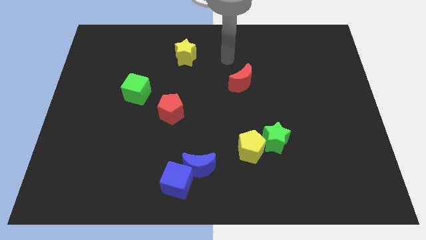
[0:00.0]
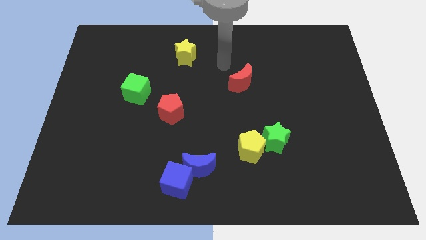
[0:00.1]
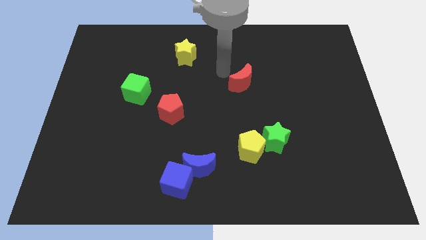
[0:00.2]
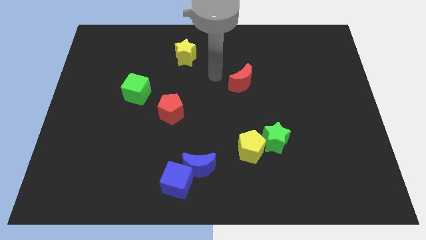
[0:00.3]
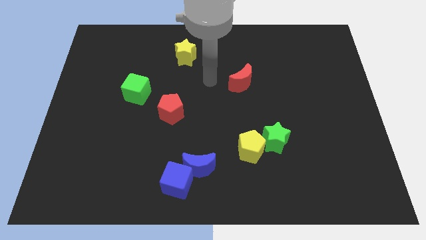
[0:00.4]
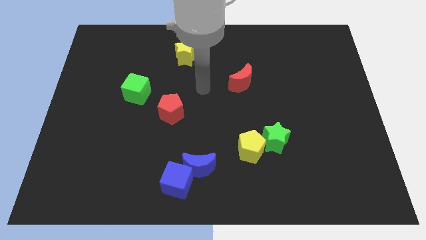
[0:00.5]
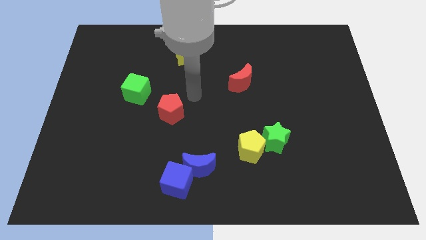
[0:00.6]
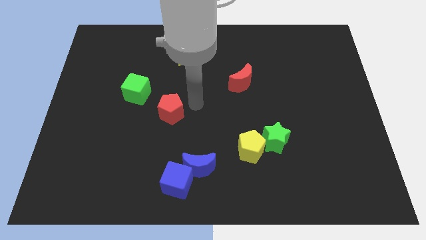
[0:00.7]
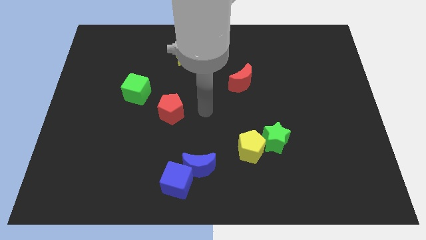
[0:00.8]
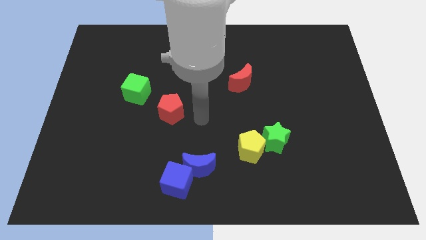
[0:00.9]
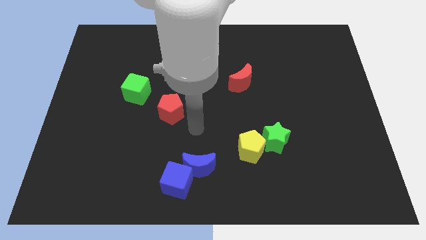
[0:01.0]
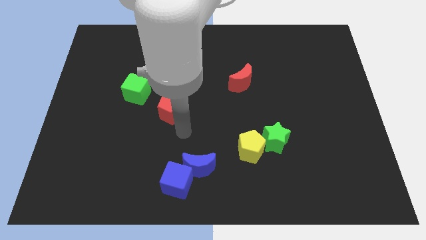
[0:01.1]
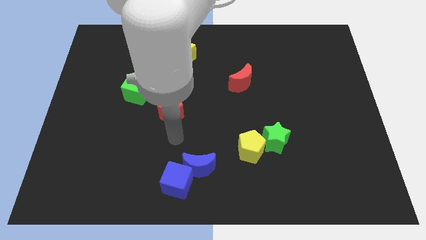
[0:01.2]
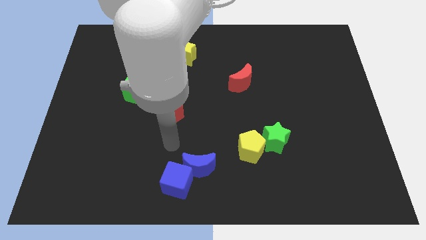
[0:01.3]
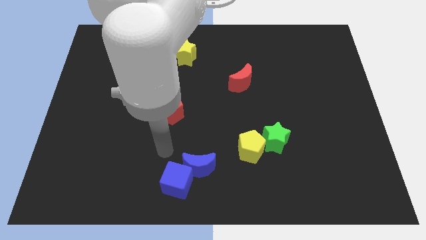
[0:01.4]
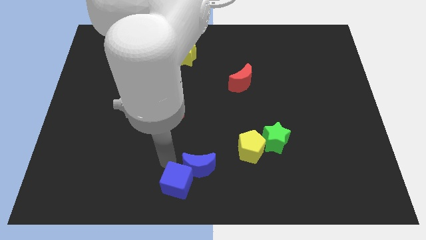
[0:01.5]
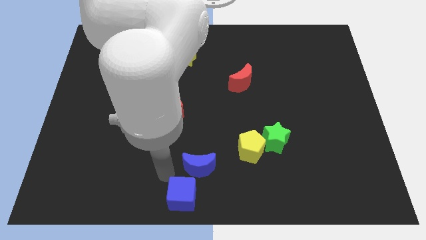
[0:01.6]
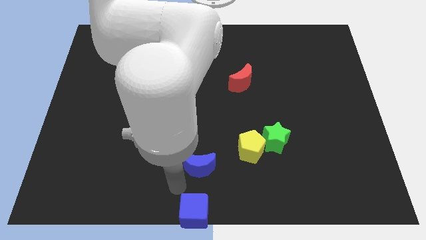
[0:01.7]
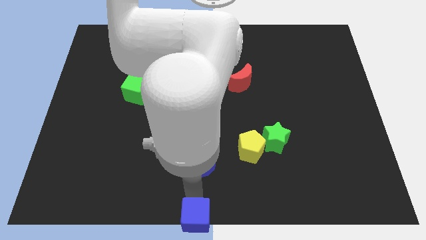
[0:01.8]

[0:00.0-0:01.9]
pull the blue moon apart from the blue cube

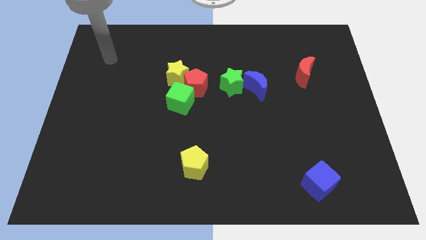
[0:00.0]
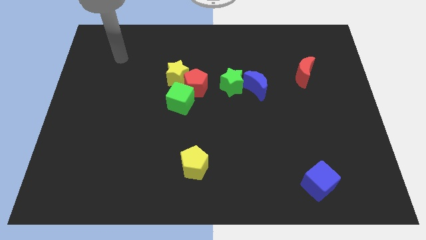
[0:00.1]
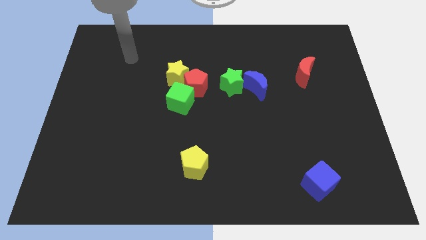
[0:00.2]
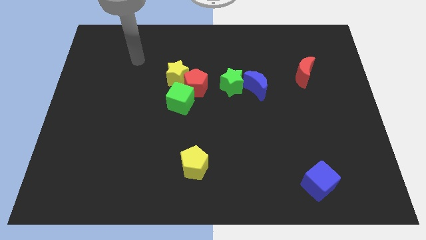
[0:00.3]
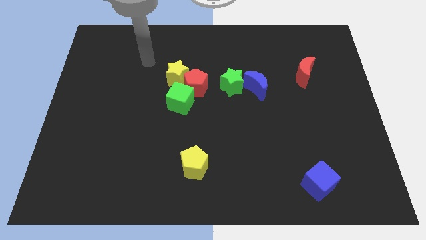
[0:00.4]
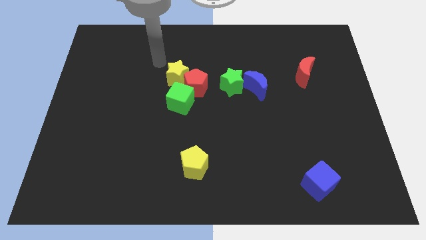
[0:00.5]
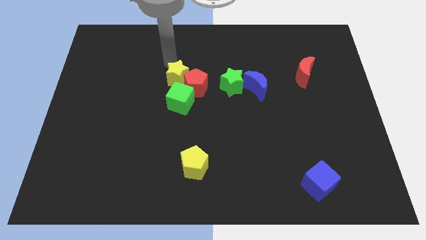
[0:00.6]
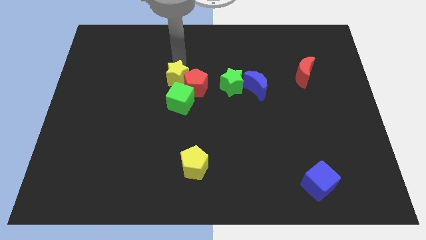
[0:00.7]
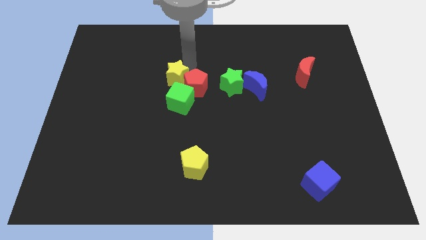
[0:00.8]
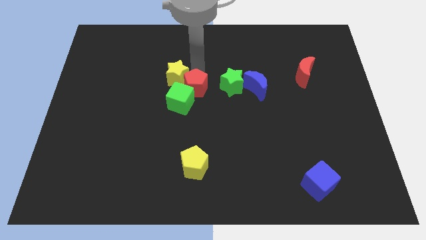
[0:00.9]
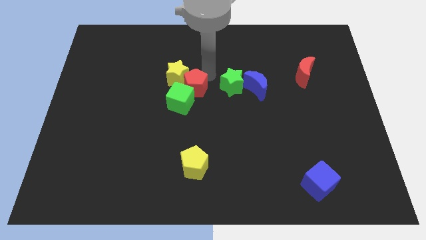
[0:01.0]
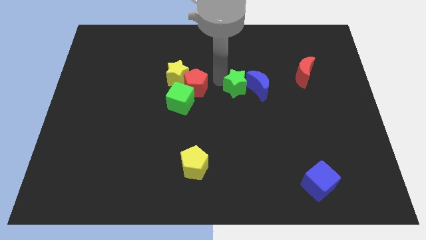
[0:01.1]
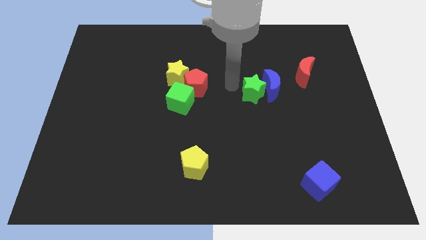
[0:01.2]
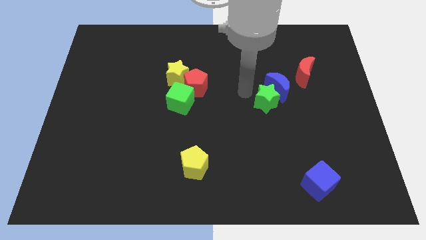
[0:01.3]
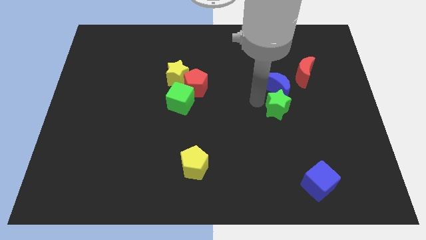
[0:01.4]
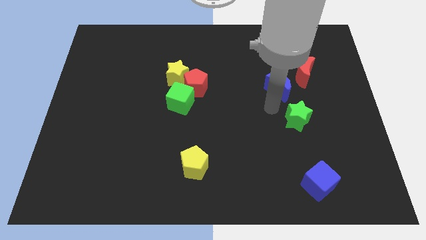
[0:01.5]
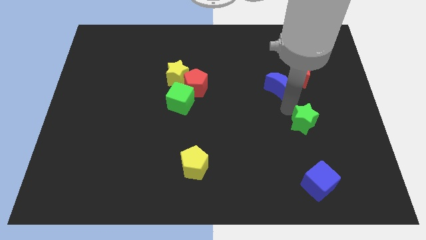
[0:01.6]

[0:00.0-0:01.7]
pull the blue moon apart from the green star

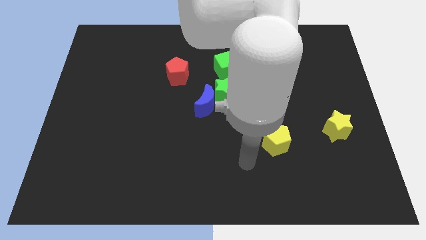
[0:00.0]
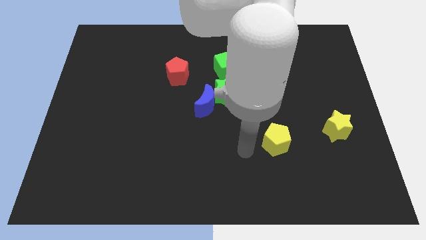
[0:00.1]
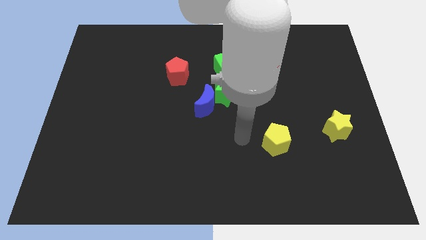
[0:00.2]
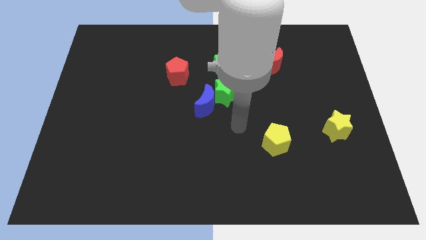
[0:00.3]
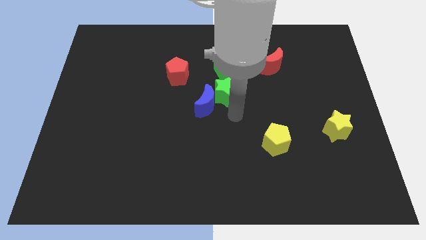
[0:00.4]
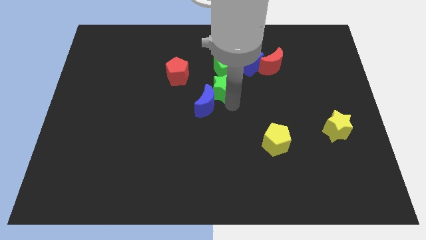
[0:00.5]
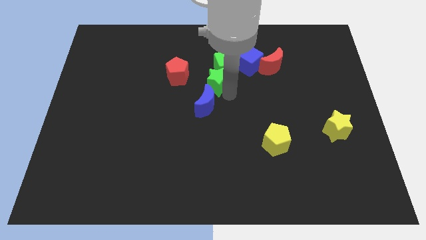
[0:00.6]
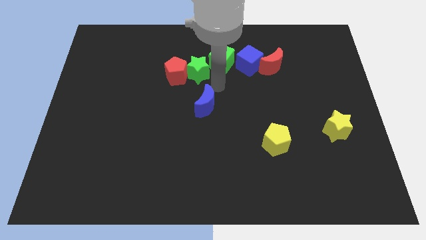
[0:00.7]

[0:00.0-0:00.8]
move the blue moon away from the green star

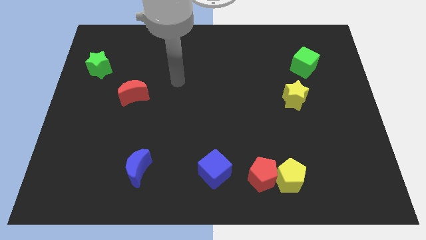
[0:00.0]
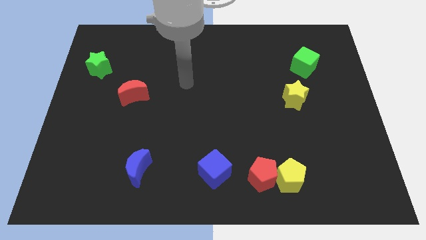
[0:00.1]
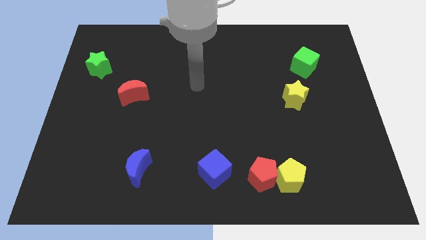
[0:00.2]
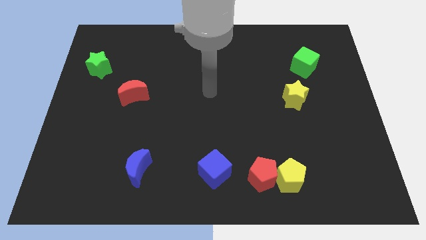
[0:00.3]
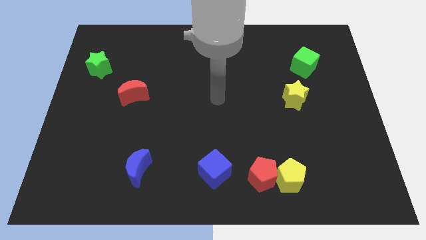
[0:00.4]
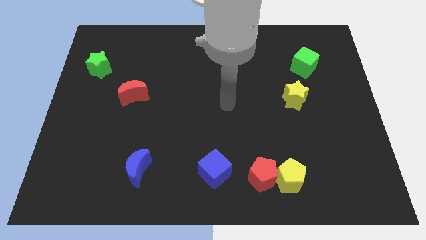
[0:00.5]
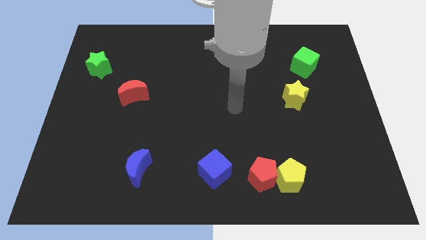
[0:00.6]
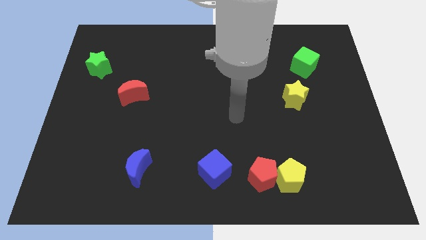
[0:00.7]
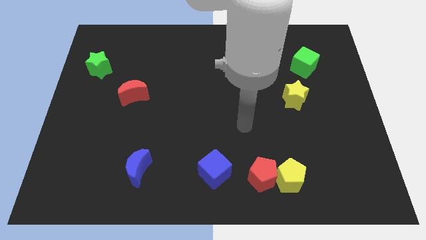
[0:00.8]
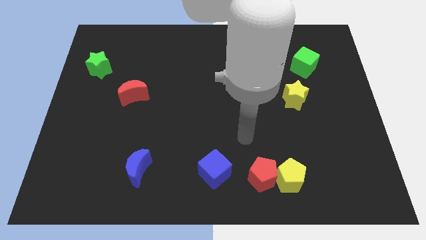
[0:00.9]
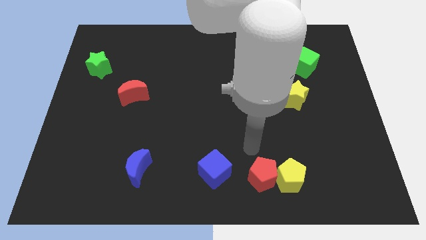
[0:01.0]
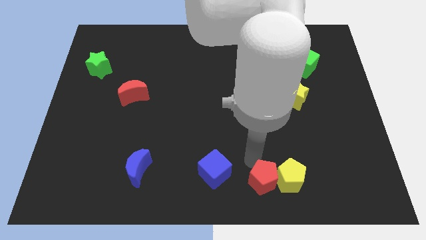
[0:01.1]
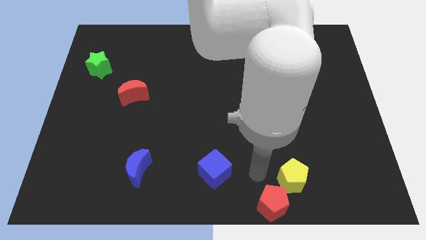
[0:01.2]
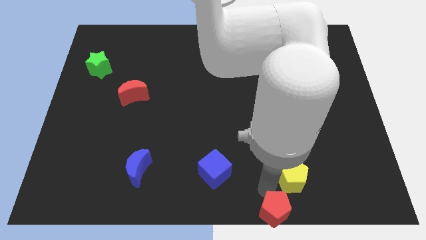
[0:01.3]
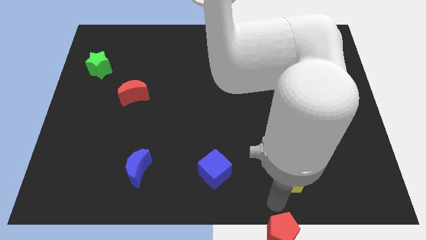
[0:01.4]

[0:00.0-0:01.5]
pull the yellow pentagon apart from the red pentagon

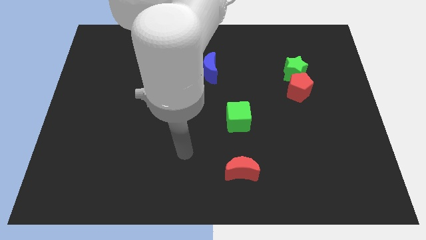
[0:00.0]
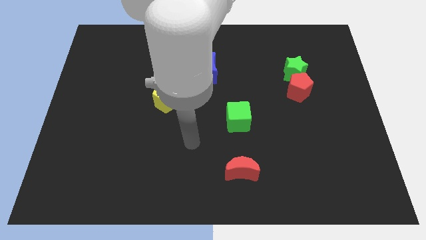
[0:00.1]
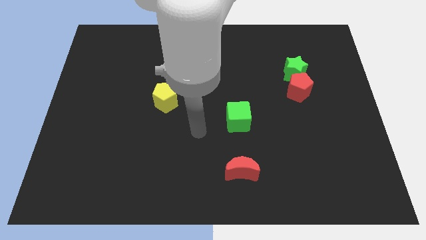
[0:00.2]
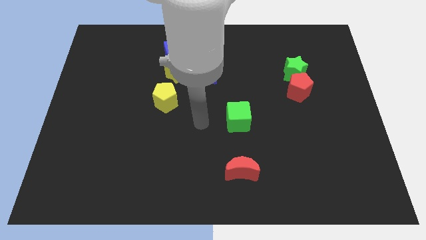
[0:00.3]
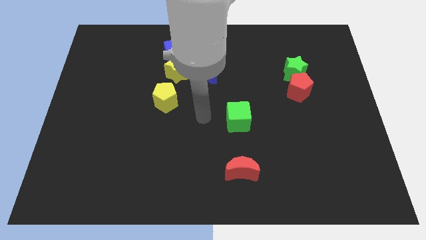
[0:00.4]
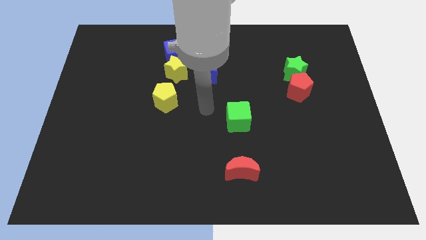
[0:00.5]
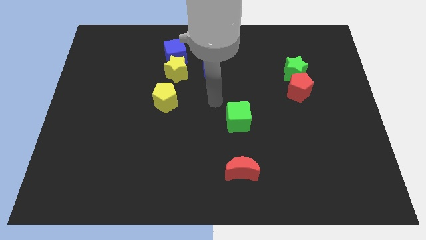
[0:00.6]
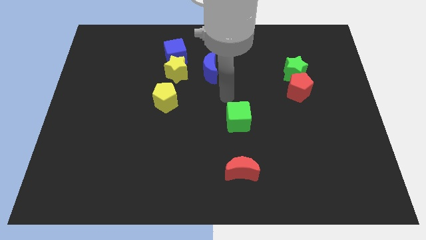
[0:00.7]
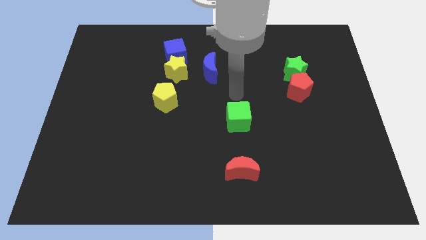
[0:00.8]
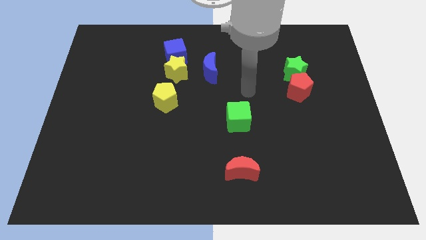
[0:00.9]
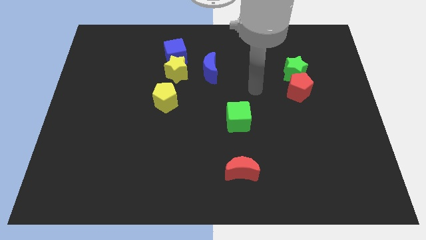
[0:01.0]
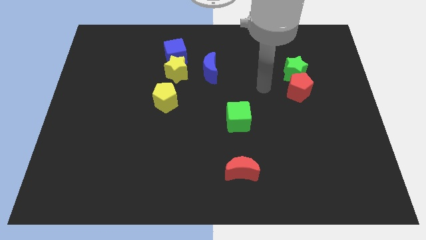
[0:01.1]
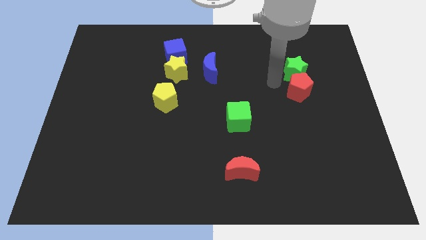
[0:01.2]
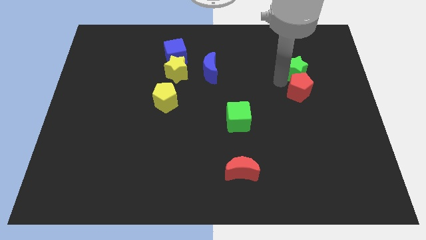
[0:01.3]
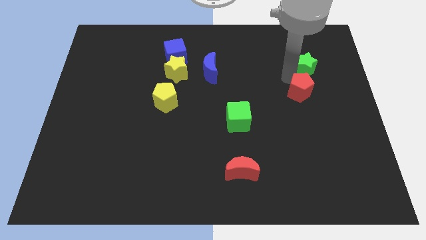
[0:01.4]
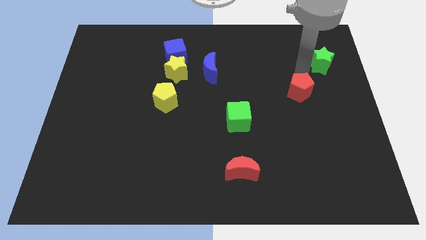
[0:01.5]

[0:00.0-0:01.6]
pull the red pentagon apart from the green star

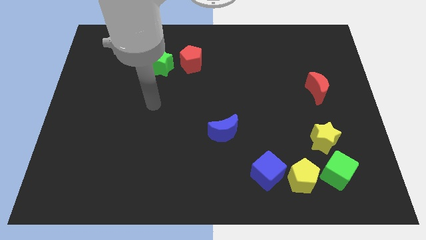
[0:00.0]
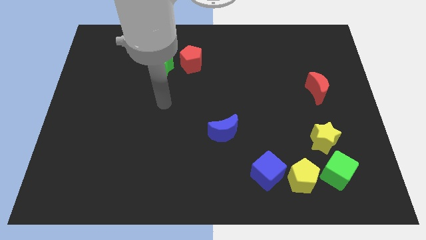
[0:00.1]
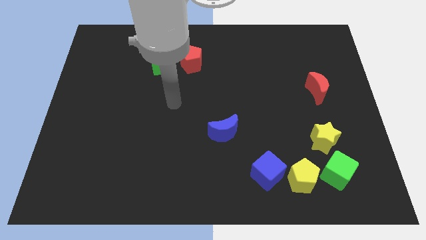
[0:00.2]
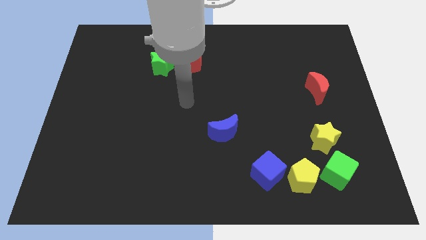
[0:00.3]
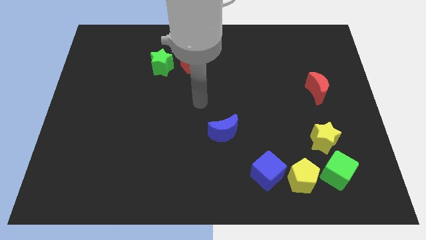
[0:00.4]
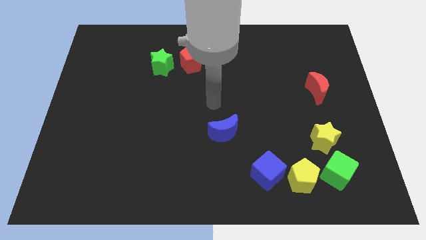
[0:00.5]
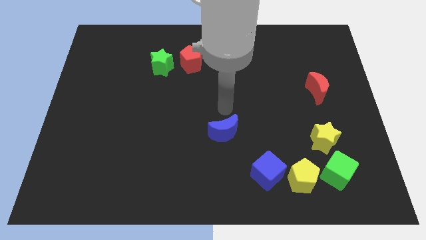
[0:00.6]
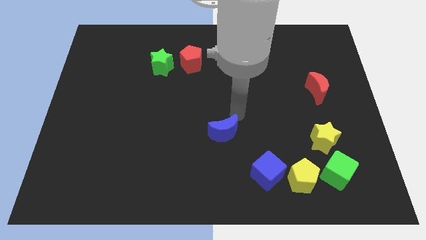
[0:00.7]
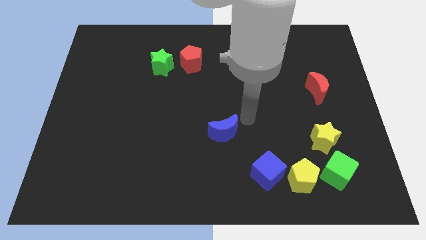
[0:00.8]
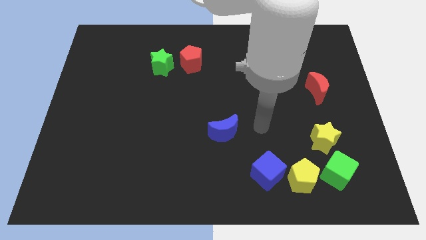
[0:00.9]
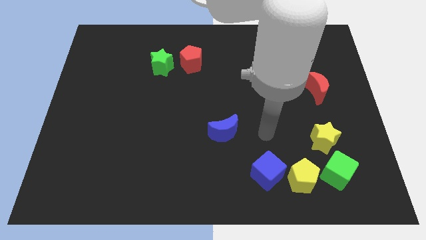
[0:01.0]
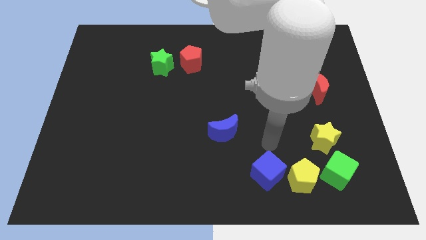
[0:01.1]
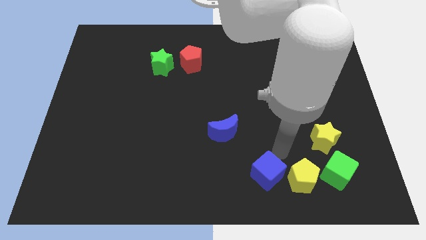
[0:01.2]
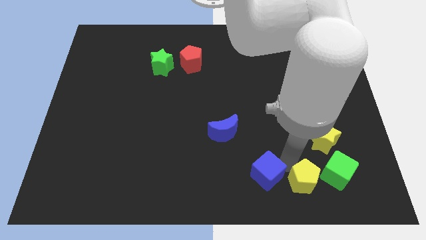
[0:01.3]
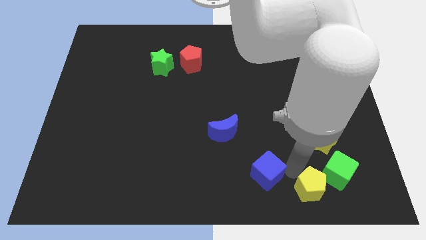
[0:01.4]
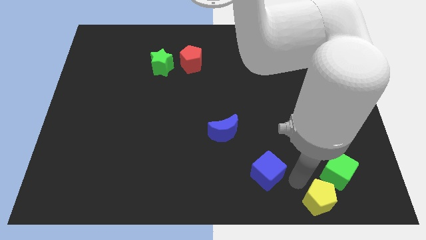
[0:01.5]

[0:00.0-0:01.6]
separate the blue cube from the yellow pentagon

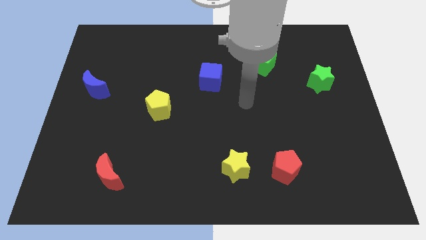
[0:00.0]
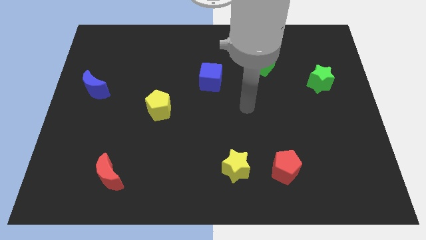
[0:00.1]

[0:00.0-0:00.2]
move the red pentagon away from the yellow star

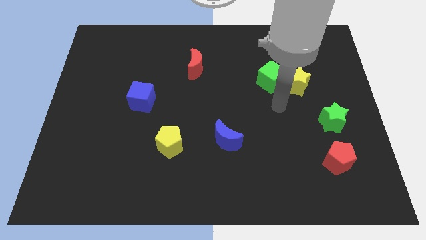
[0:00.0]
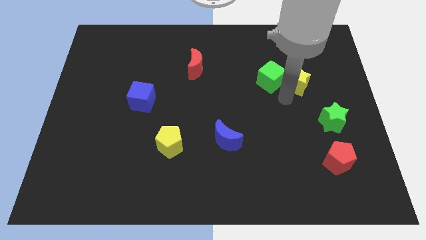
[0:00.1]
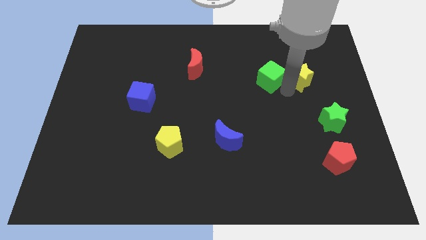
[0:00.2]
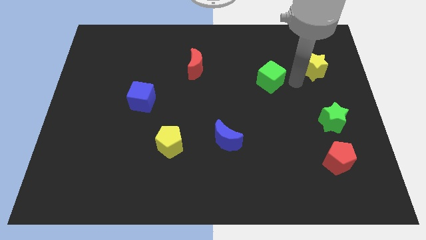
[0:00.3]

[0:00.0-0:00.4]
pull the green cube apart from the yellow star
